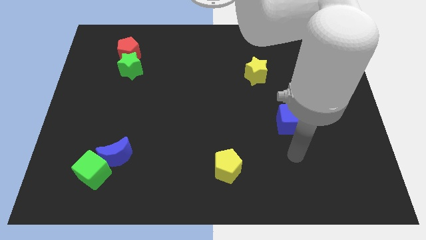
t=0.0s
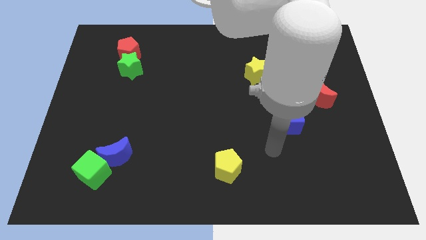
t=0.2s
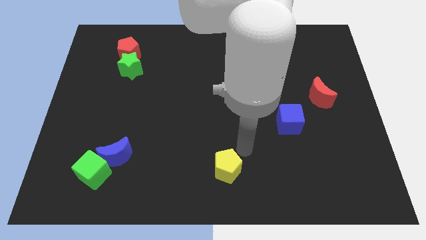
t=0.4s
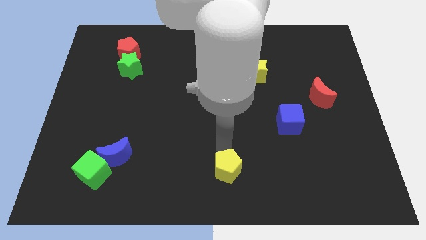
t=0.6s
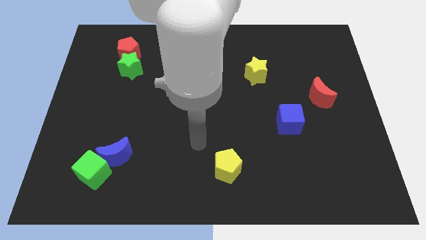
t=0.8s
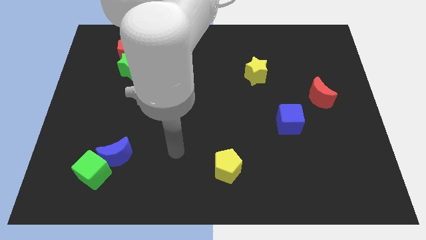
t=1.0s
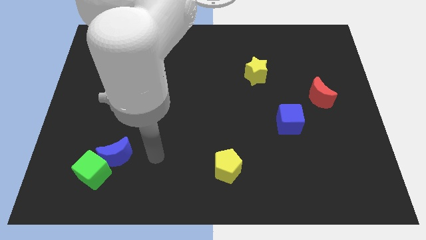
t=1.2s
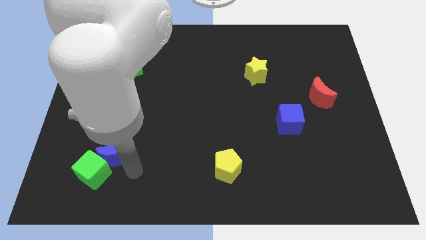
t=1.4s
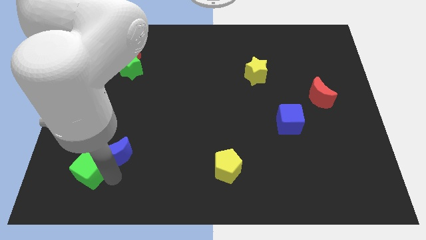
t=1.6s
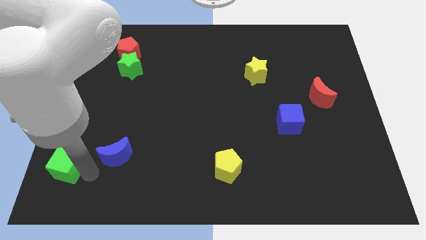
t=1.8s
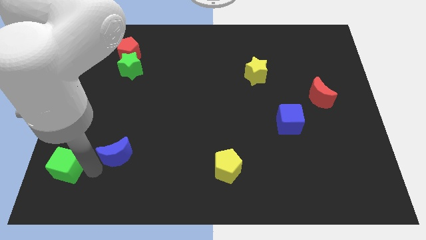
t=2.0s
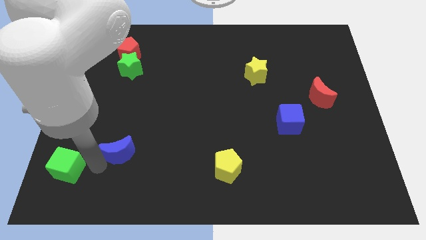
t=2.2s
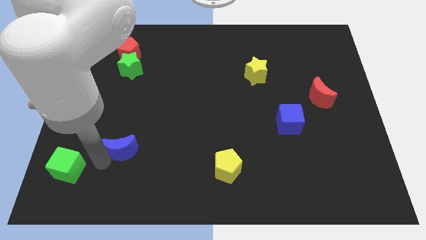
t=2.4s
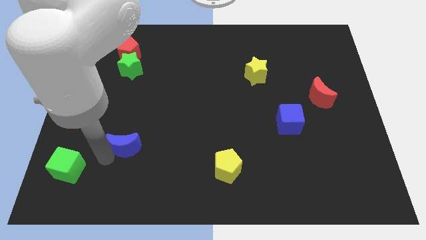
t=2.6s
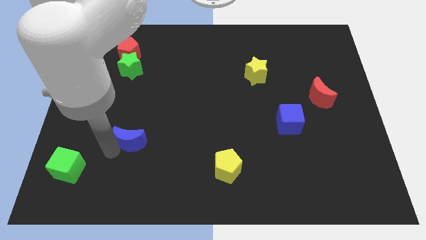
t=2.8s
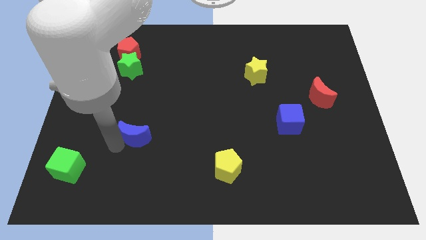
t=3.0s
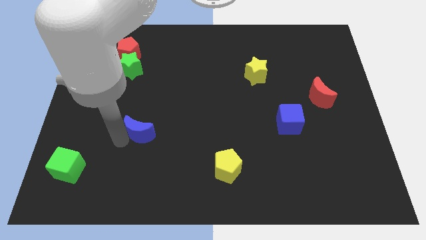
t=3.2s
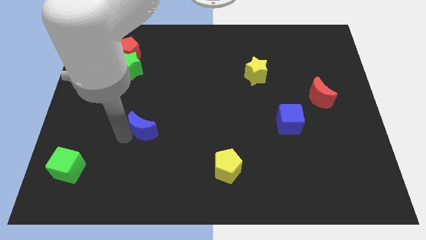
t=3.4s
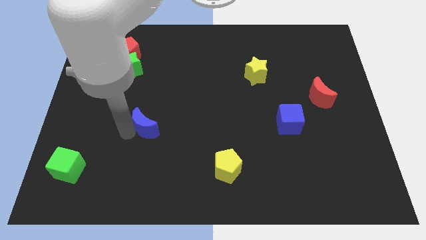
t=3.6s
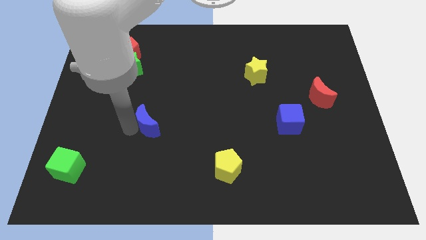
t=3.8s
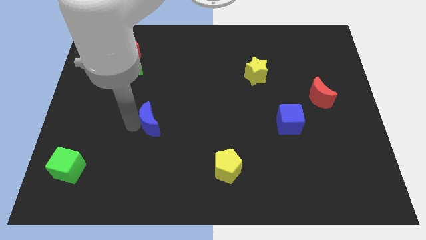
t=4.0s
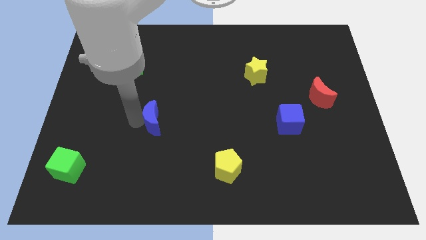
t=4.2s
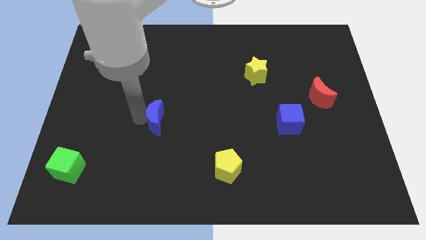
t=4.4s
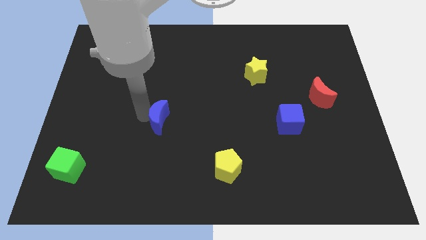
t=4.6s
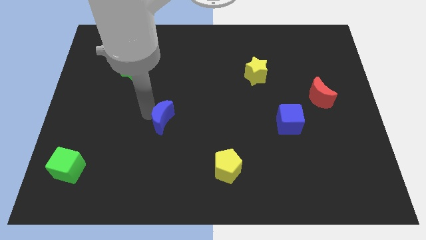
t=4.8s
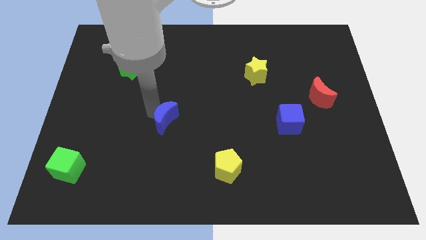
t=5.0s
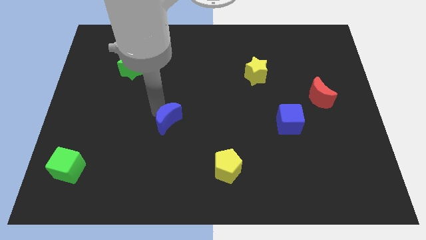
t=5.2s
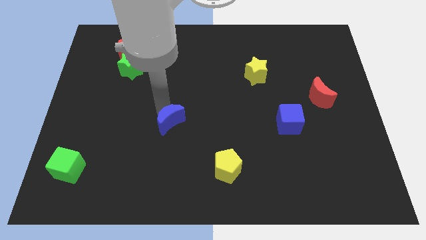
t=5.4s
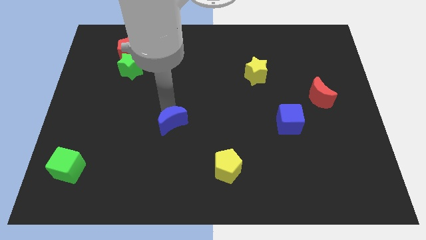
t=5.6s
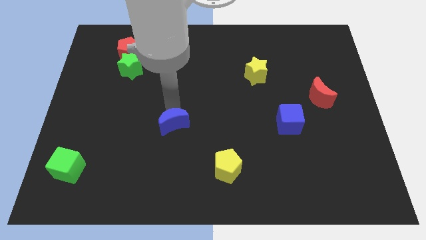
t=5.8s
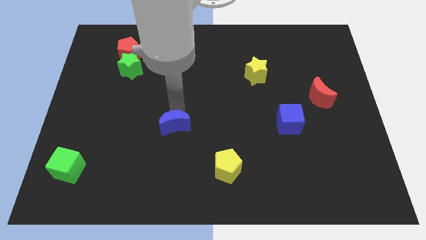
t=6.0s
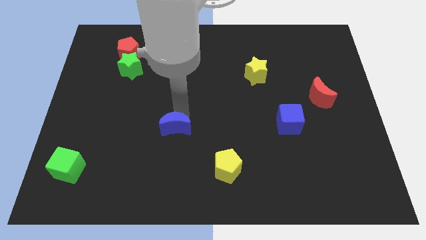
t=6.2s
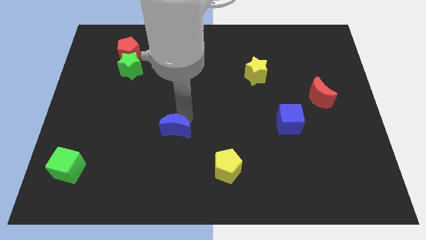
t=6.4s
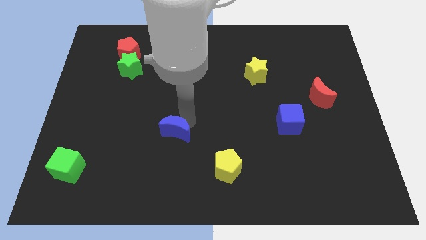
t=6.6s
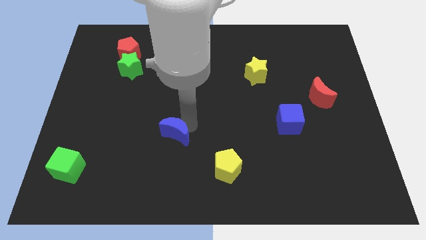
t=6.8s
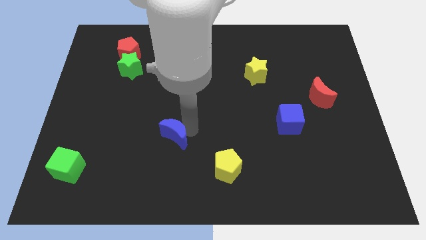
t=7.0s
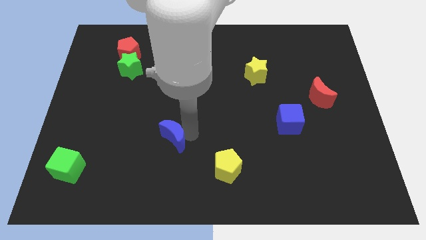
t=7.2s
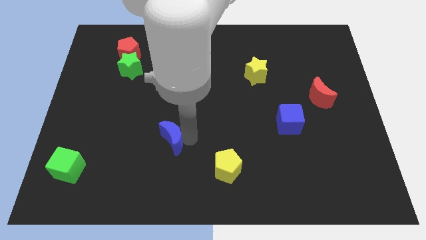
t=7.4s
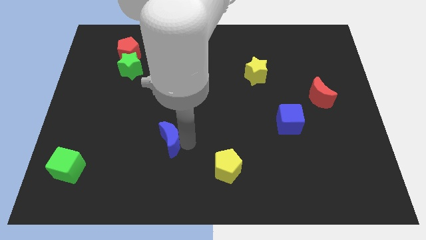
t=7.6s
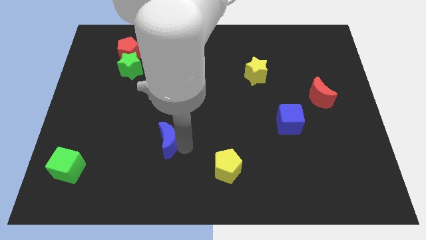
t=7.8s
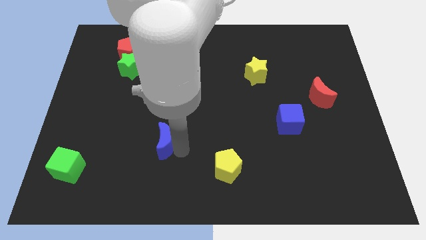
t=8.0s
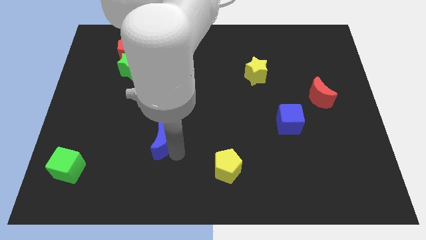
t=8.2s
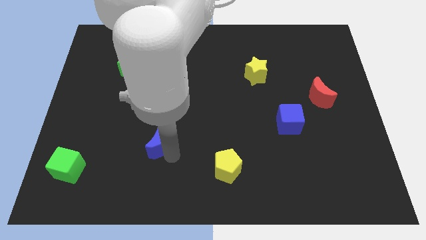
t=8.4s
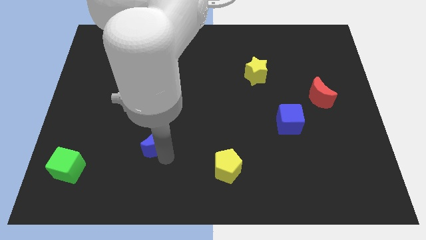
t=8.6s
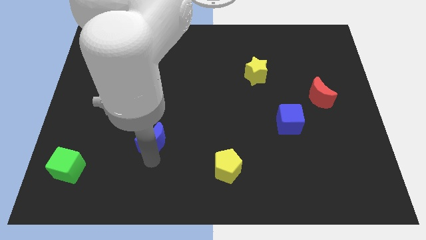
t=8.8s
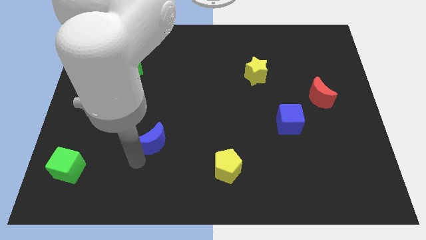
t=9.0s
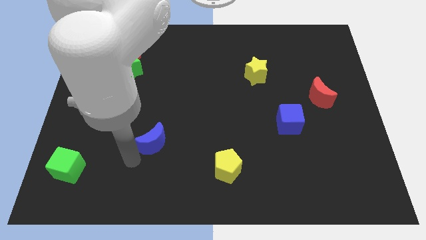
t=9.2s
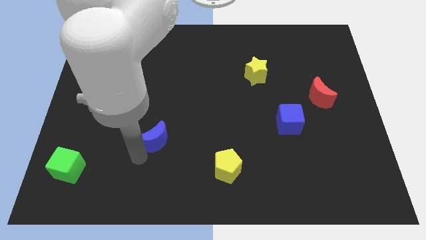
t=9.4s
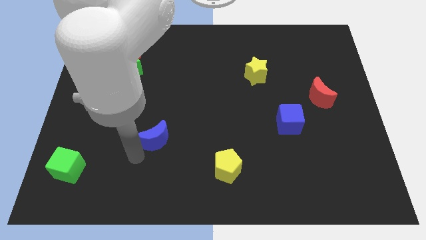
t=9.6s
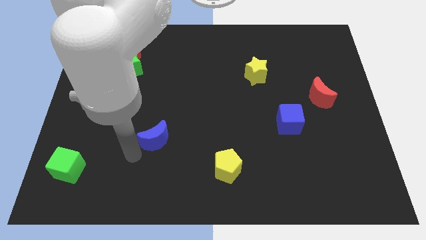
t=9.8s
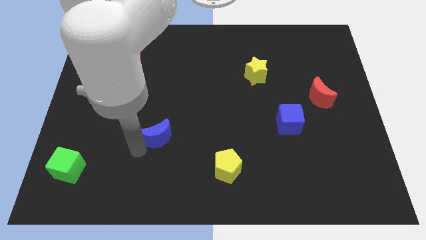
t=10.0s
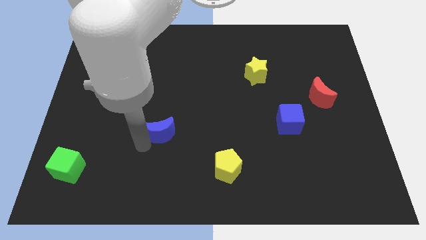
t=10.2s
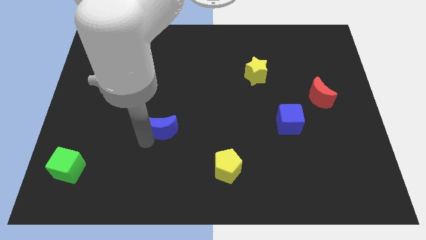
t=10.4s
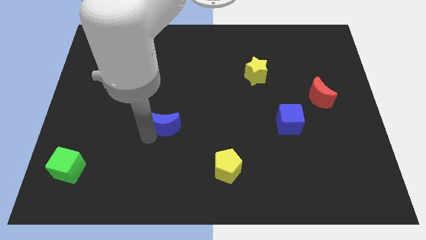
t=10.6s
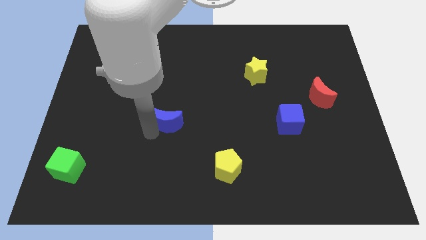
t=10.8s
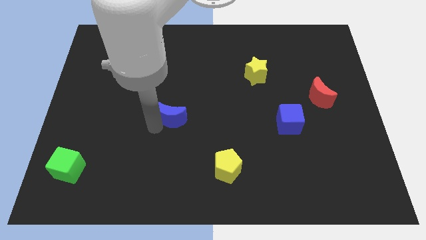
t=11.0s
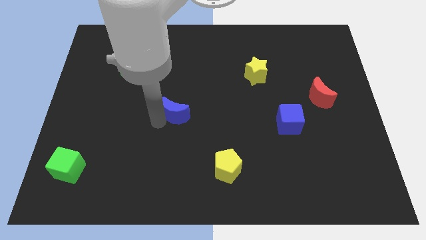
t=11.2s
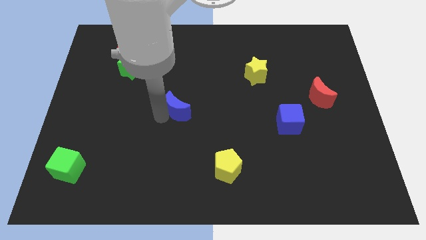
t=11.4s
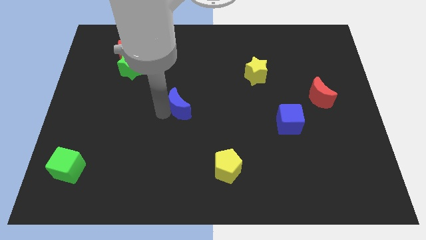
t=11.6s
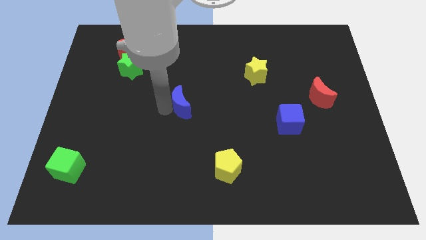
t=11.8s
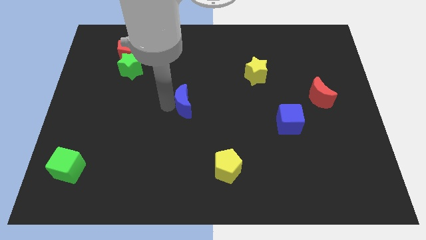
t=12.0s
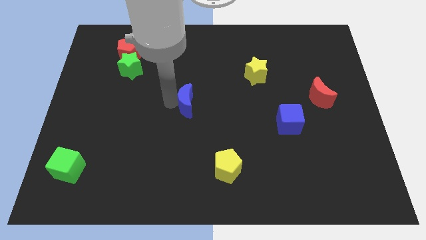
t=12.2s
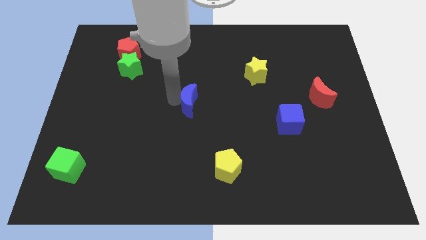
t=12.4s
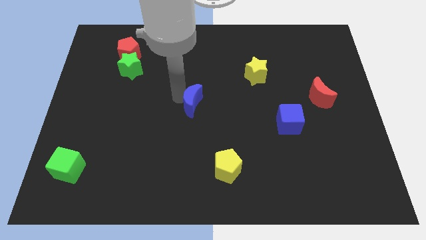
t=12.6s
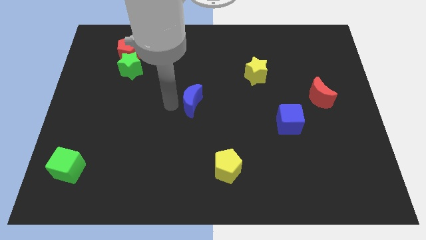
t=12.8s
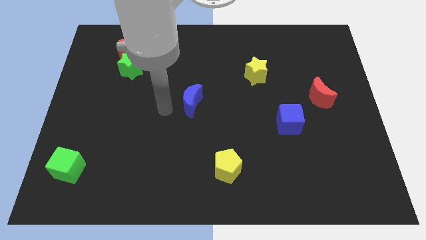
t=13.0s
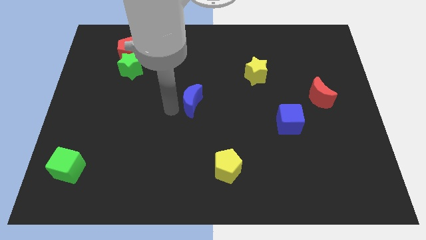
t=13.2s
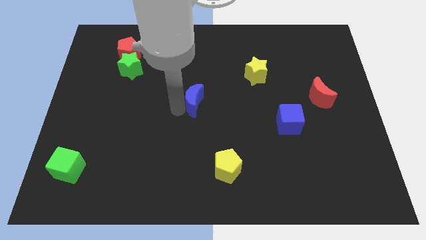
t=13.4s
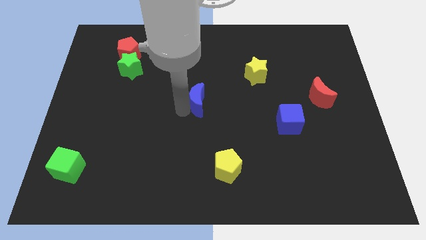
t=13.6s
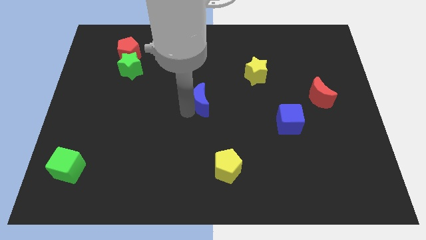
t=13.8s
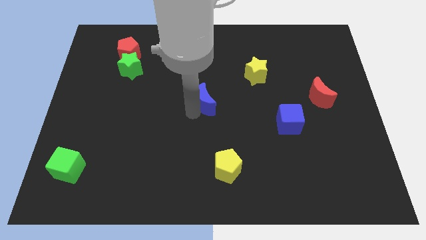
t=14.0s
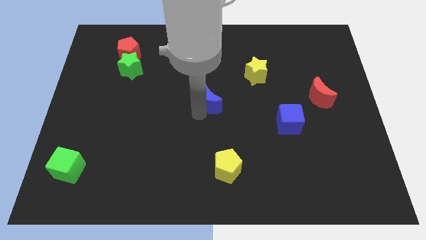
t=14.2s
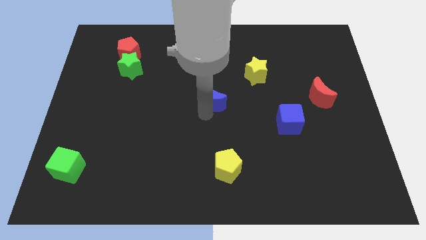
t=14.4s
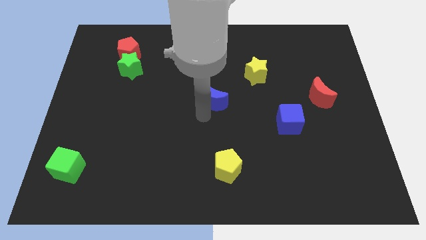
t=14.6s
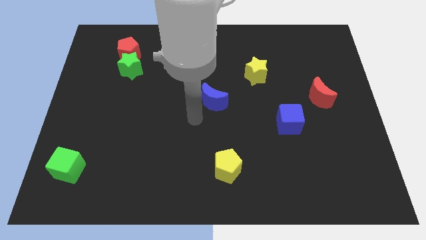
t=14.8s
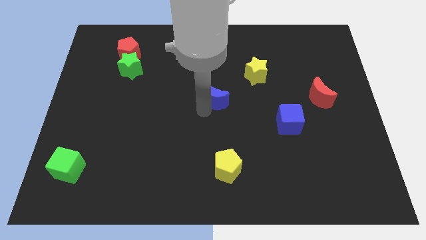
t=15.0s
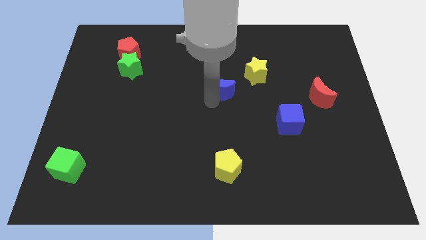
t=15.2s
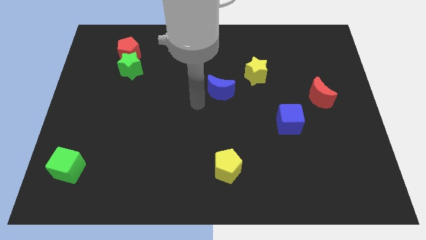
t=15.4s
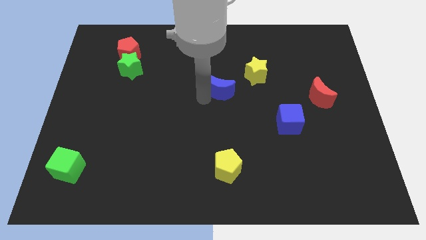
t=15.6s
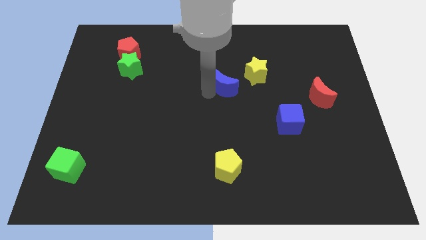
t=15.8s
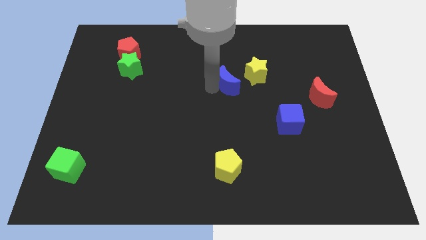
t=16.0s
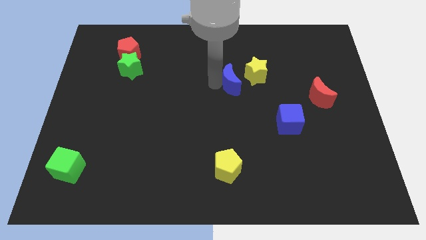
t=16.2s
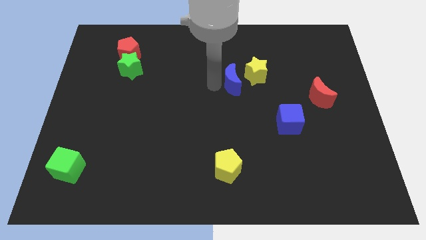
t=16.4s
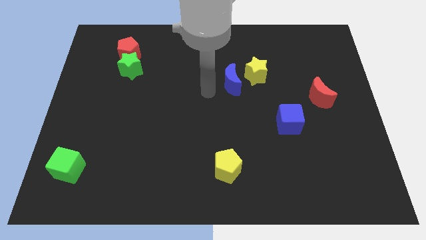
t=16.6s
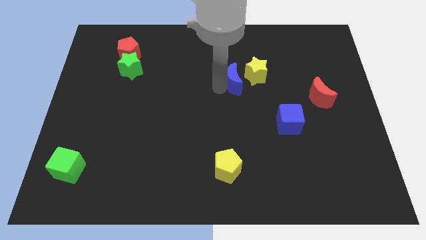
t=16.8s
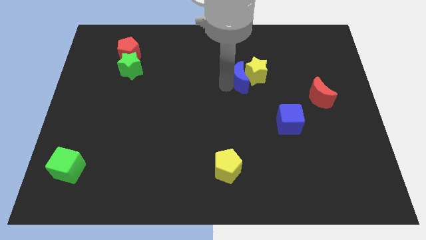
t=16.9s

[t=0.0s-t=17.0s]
move the blue moon towards the yellow star
